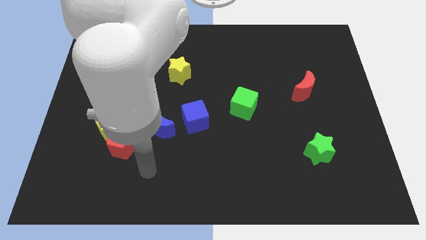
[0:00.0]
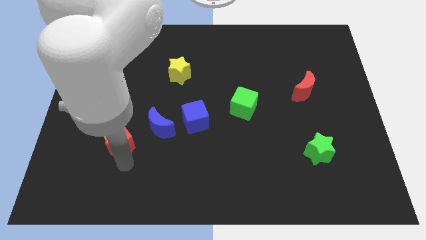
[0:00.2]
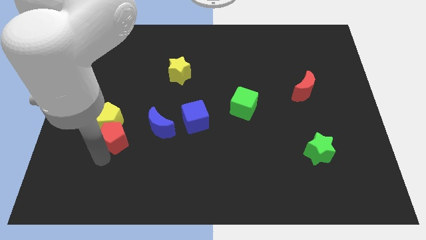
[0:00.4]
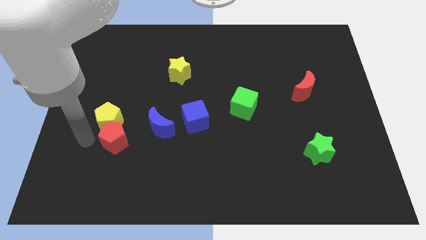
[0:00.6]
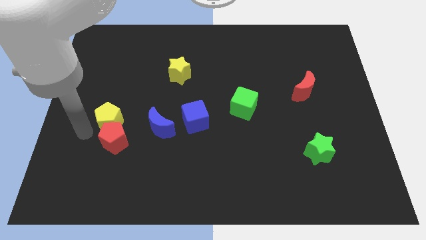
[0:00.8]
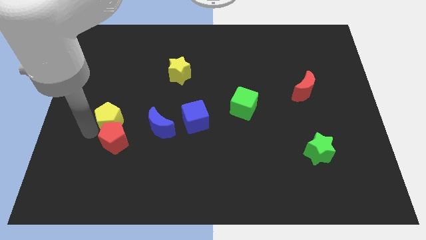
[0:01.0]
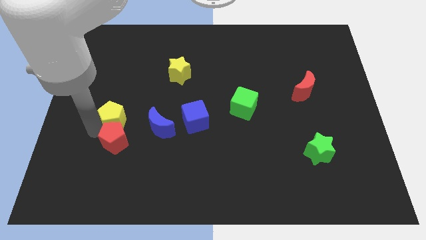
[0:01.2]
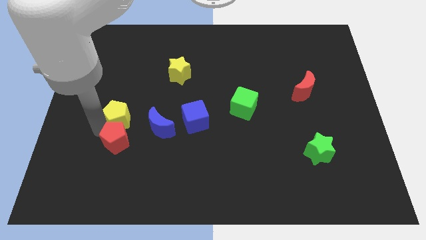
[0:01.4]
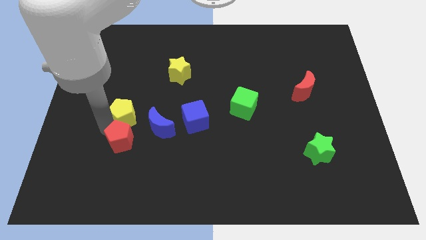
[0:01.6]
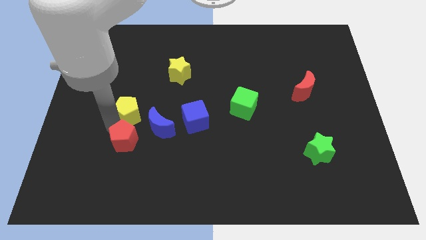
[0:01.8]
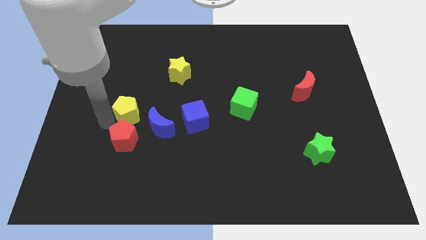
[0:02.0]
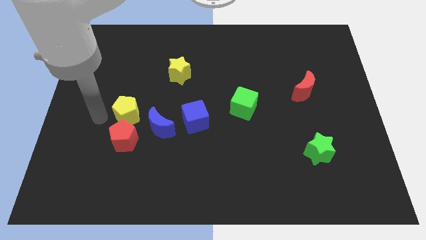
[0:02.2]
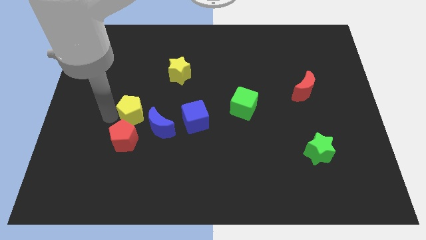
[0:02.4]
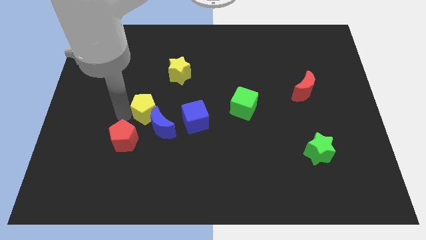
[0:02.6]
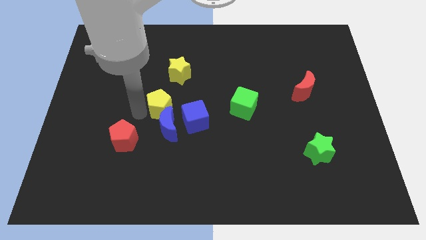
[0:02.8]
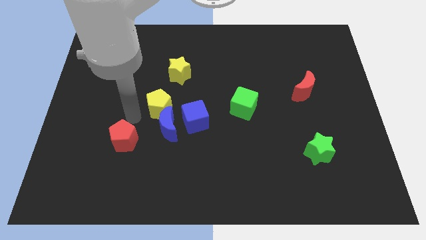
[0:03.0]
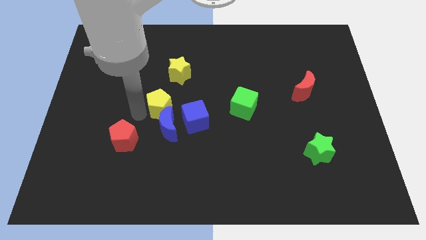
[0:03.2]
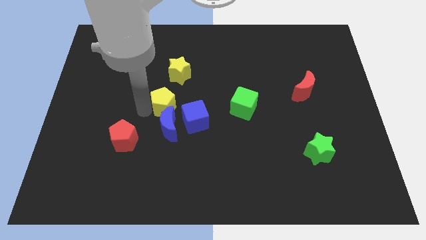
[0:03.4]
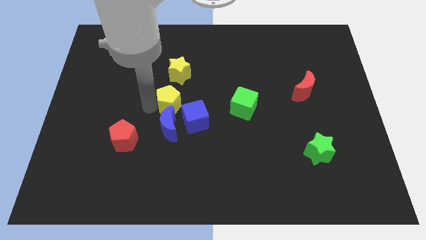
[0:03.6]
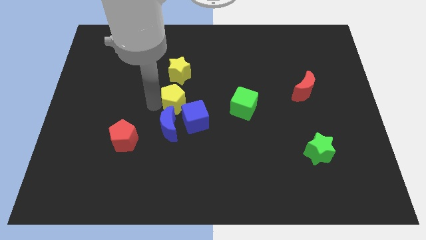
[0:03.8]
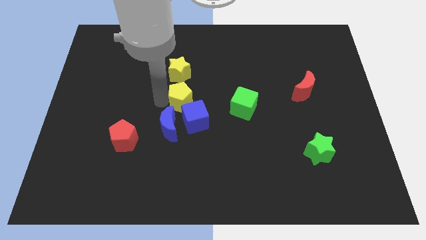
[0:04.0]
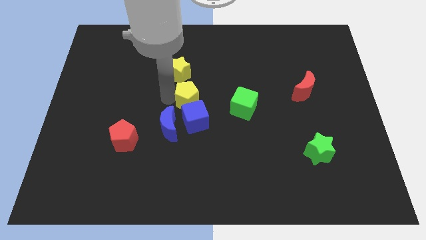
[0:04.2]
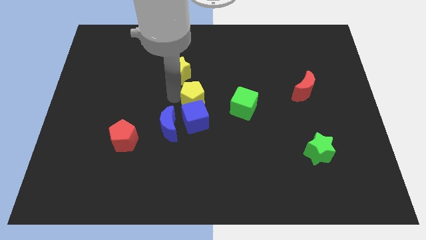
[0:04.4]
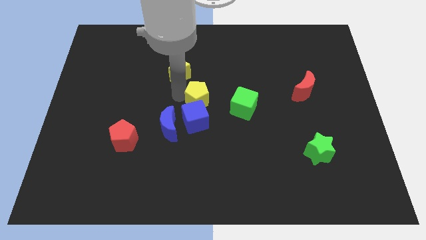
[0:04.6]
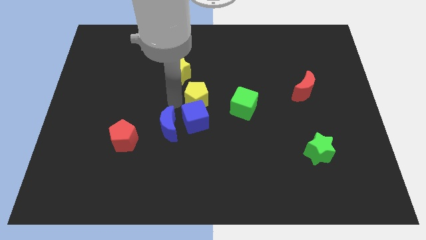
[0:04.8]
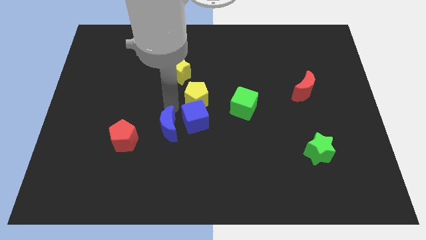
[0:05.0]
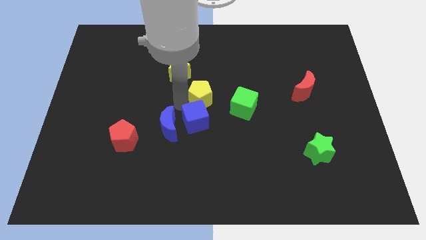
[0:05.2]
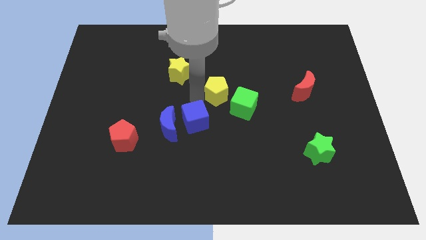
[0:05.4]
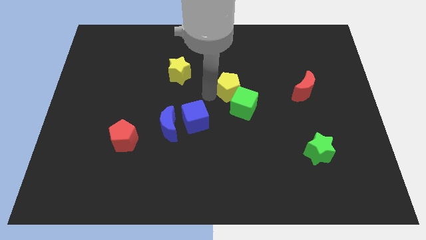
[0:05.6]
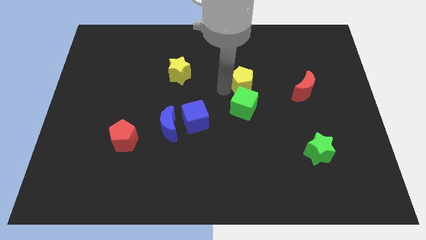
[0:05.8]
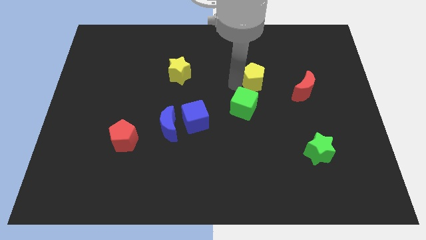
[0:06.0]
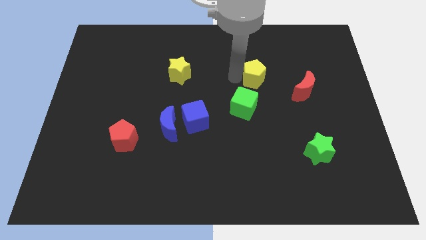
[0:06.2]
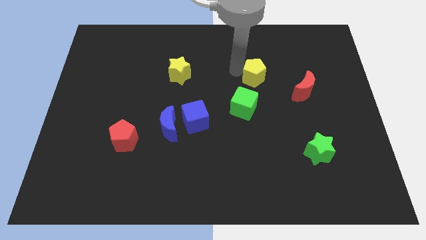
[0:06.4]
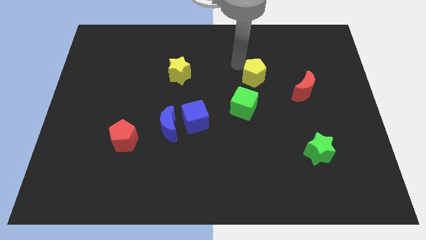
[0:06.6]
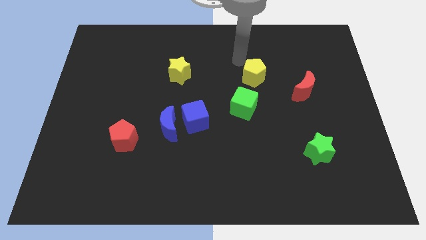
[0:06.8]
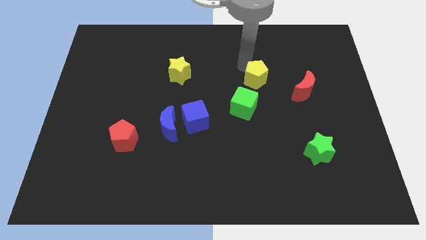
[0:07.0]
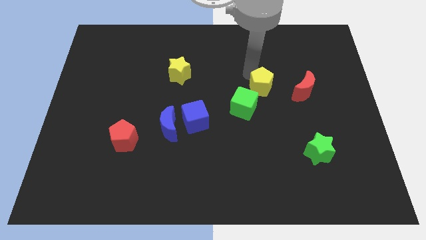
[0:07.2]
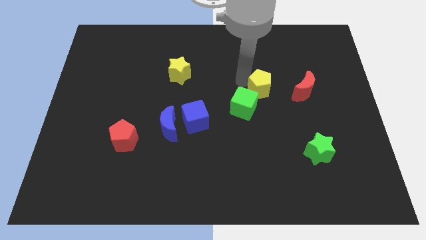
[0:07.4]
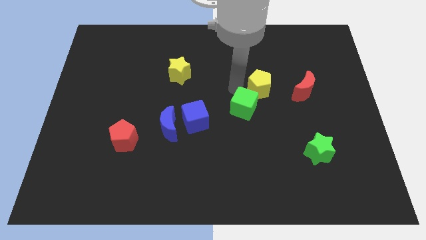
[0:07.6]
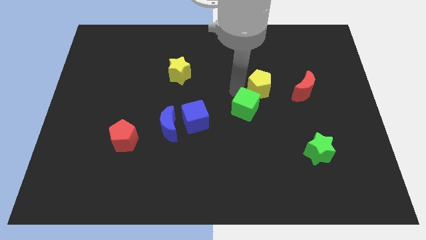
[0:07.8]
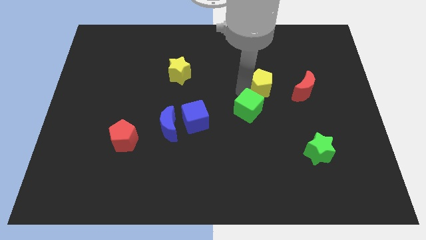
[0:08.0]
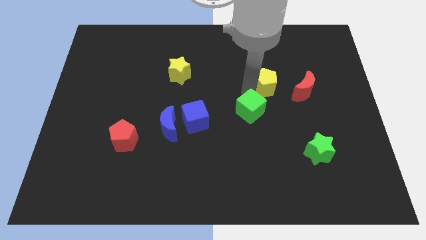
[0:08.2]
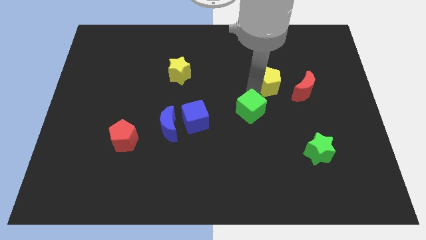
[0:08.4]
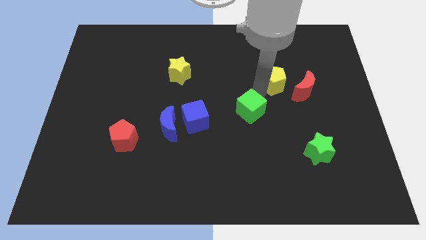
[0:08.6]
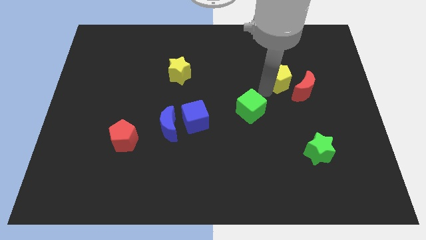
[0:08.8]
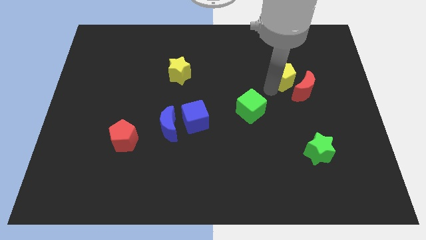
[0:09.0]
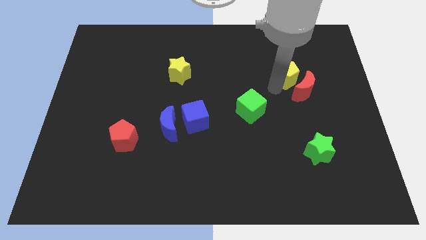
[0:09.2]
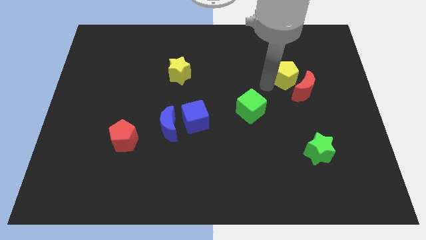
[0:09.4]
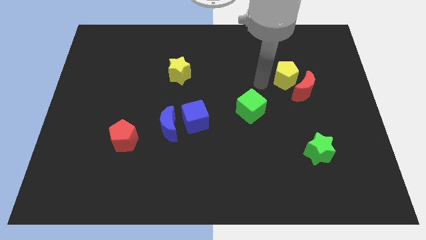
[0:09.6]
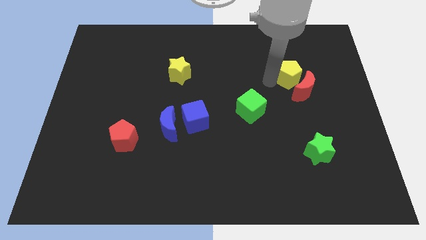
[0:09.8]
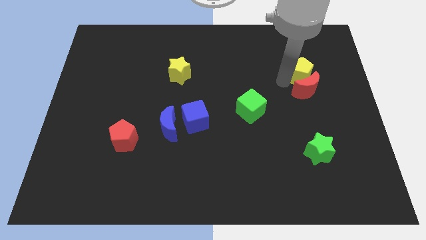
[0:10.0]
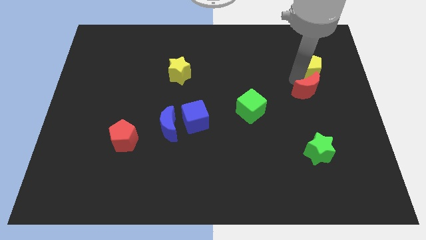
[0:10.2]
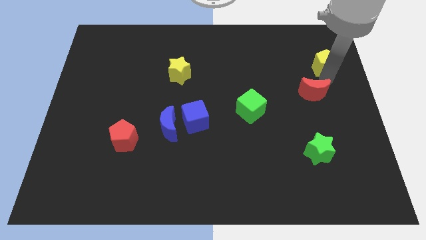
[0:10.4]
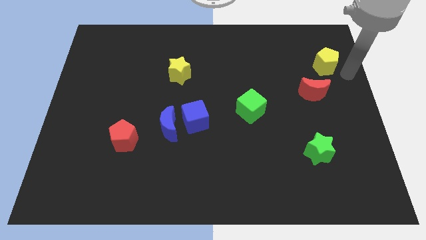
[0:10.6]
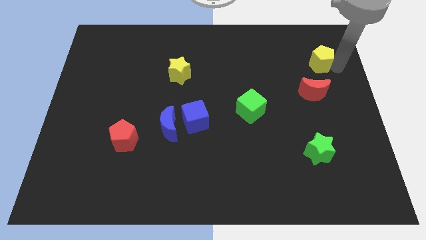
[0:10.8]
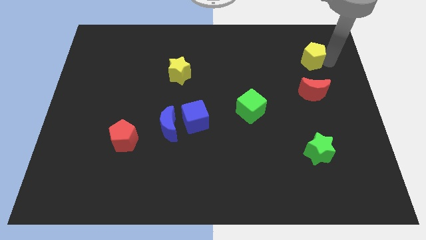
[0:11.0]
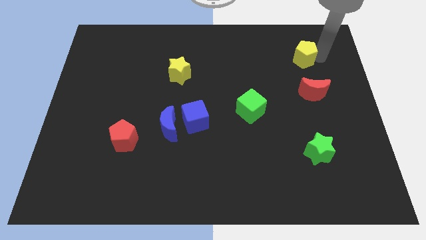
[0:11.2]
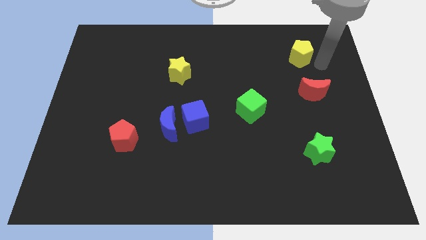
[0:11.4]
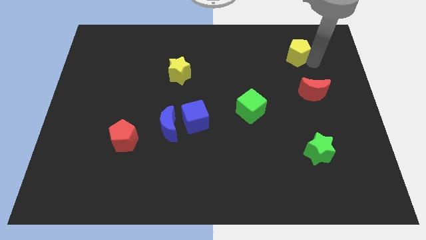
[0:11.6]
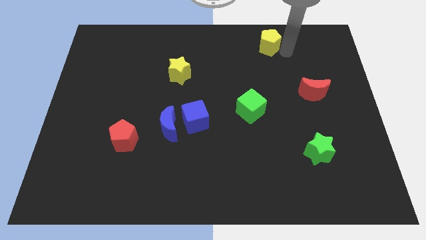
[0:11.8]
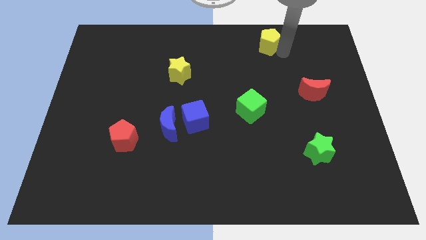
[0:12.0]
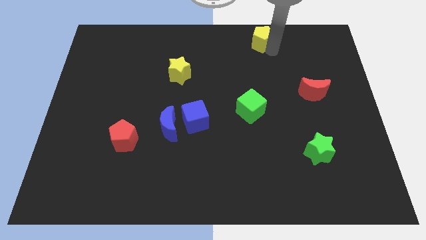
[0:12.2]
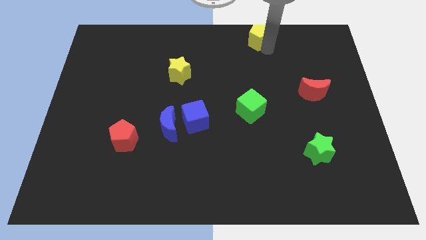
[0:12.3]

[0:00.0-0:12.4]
put the yellow pentagon to the towards your base
